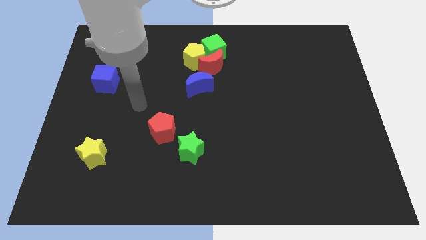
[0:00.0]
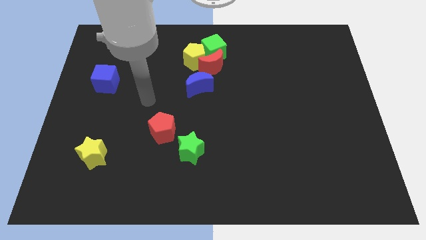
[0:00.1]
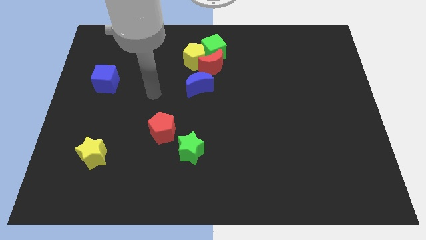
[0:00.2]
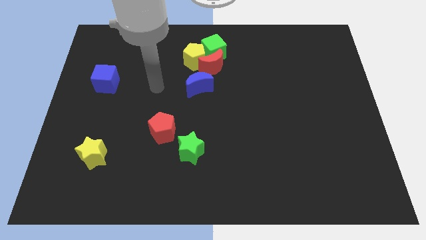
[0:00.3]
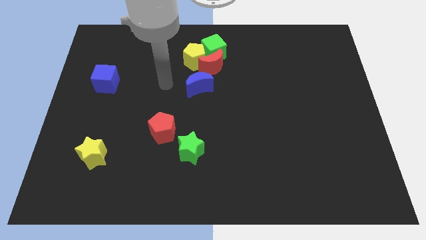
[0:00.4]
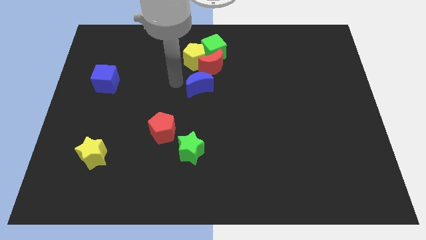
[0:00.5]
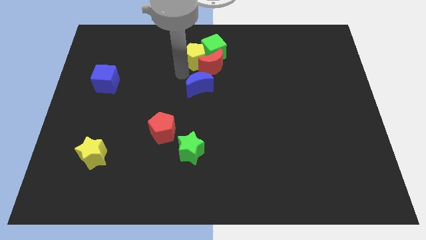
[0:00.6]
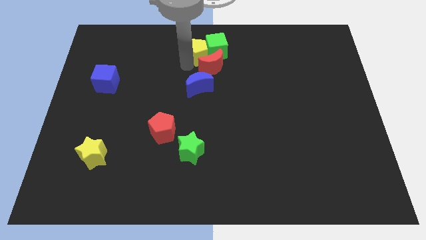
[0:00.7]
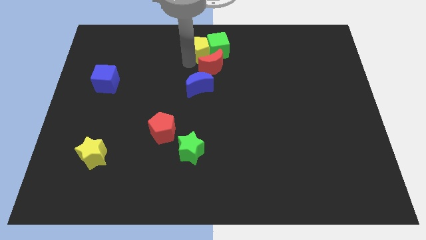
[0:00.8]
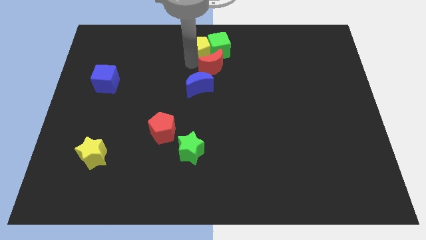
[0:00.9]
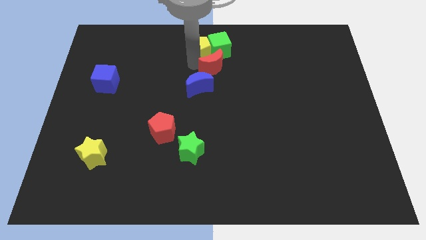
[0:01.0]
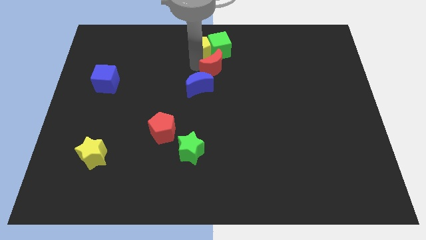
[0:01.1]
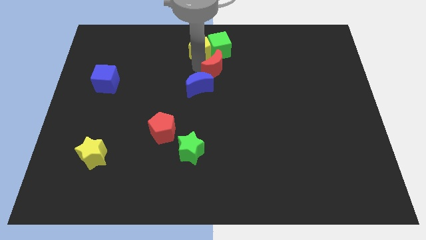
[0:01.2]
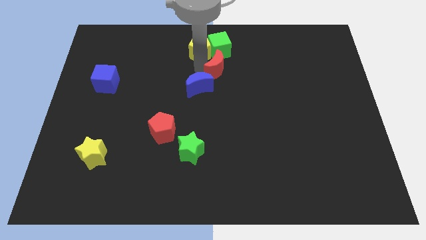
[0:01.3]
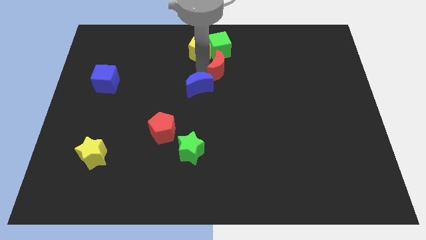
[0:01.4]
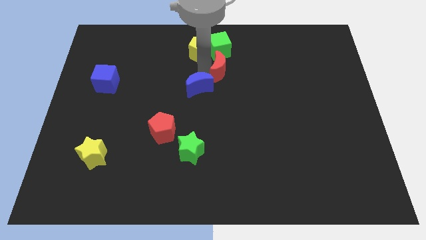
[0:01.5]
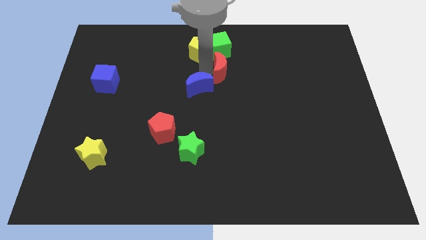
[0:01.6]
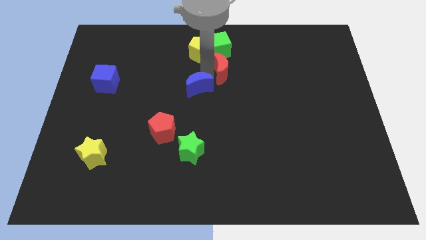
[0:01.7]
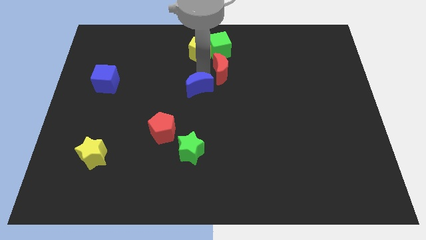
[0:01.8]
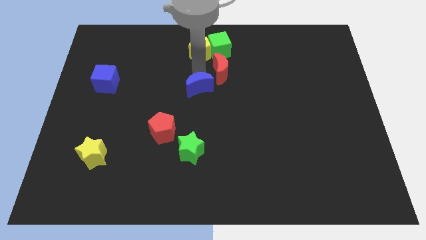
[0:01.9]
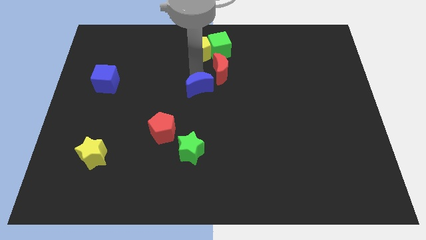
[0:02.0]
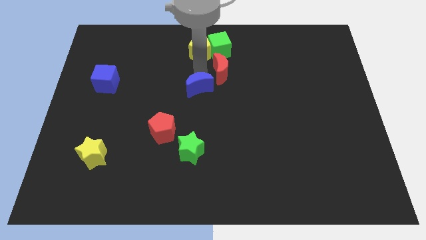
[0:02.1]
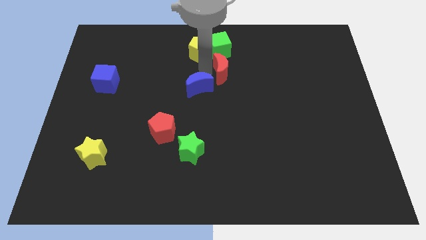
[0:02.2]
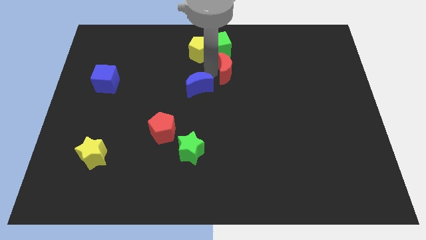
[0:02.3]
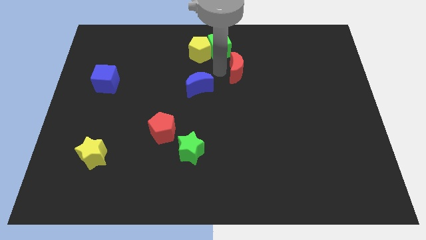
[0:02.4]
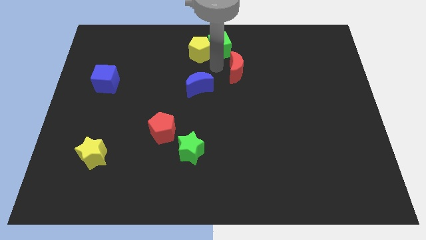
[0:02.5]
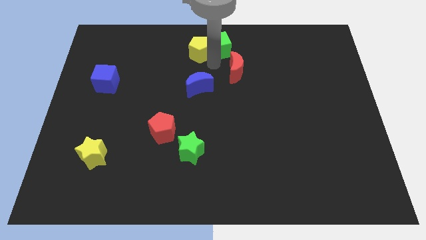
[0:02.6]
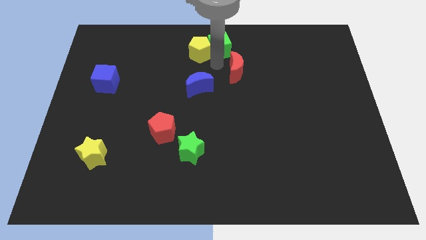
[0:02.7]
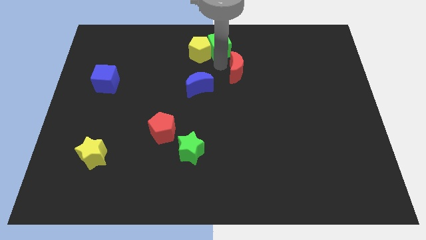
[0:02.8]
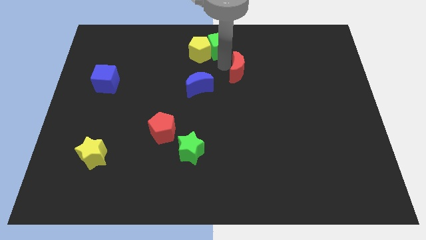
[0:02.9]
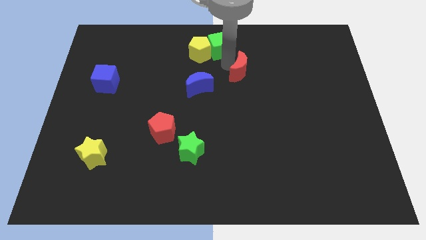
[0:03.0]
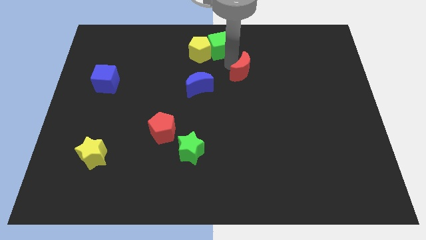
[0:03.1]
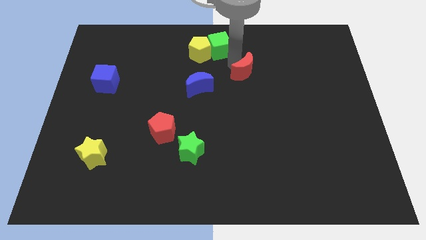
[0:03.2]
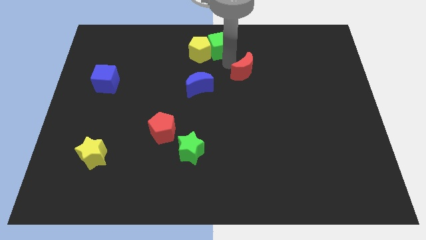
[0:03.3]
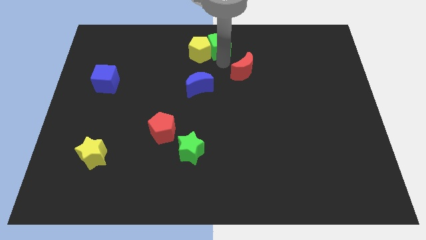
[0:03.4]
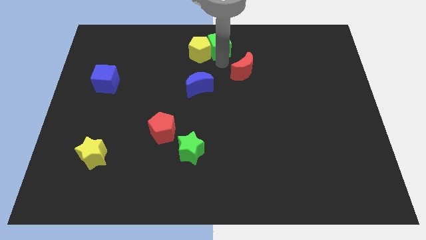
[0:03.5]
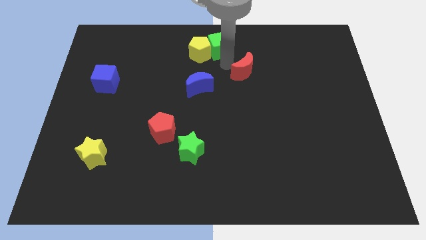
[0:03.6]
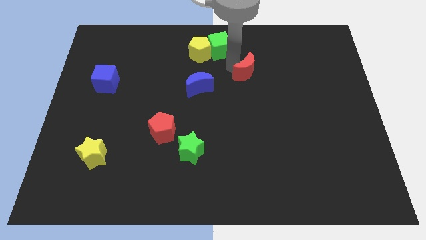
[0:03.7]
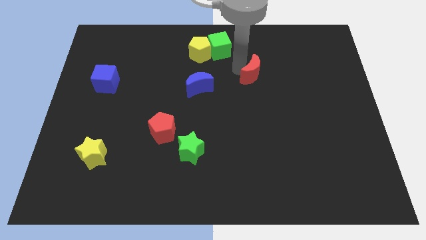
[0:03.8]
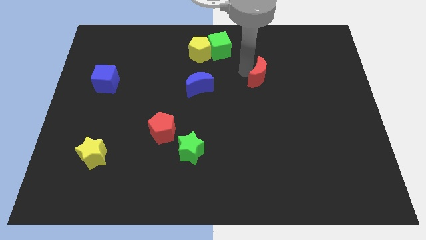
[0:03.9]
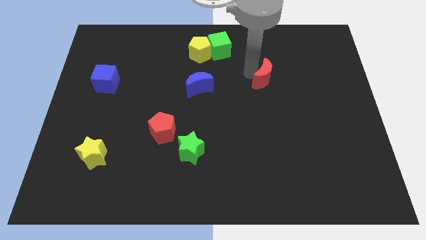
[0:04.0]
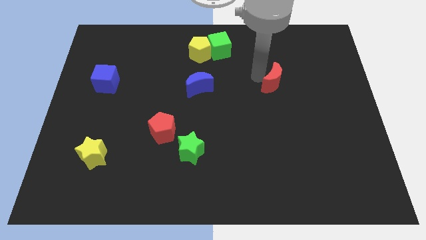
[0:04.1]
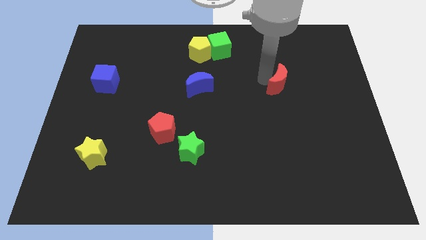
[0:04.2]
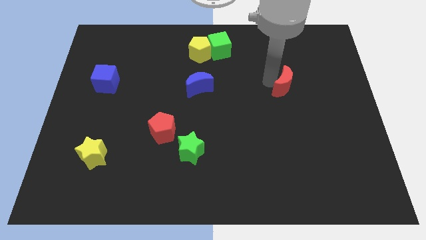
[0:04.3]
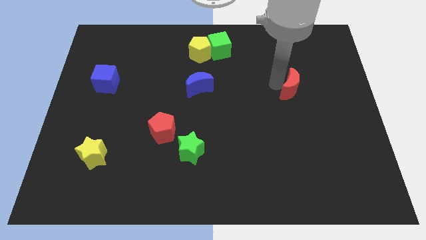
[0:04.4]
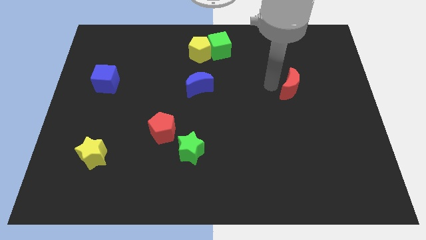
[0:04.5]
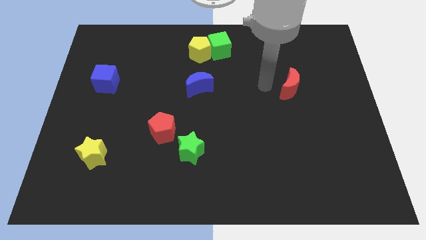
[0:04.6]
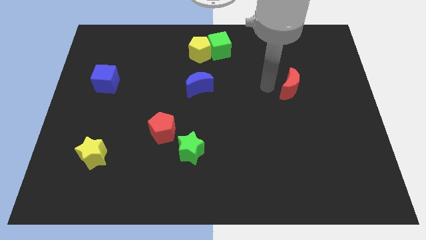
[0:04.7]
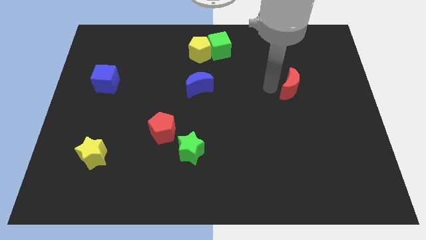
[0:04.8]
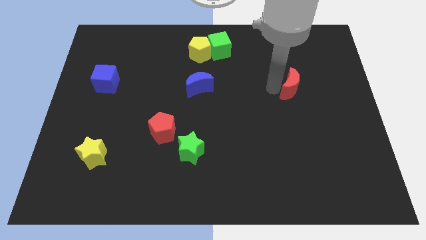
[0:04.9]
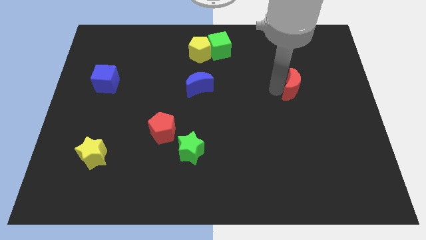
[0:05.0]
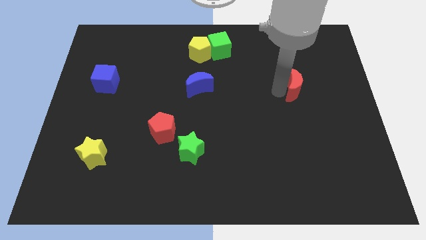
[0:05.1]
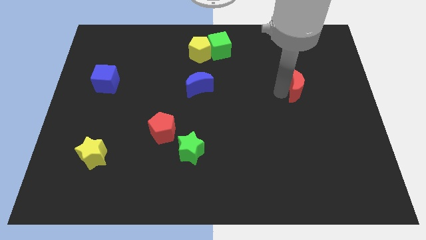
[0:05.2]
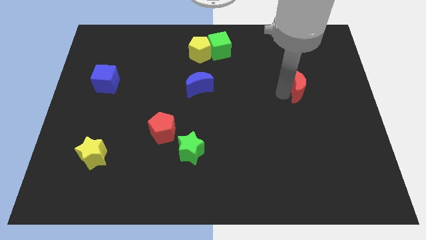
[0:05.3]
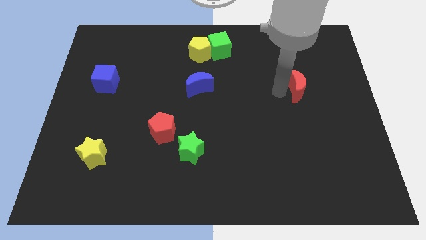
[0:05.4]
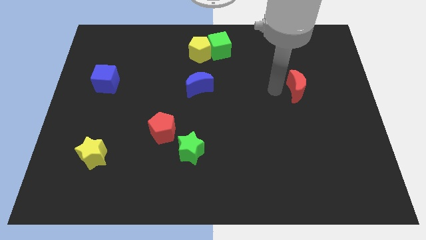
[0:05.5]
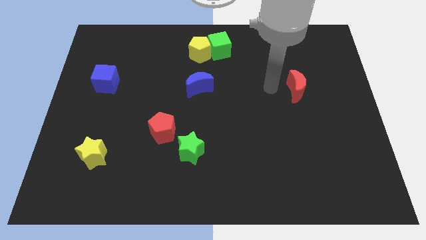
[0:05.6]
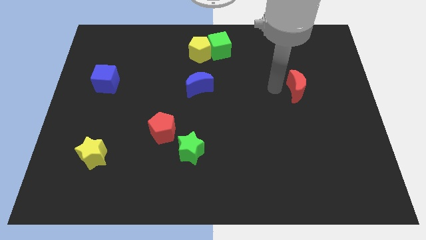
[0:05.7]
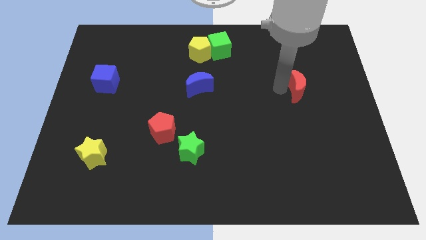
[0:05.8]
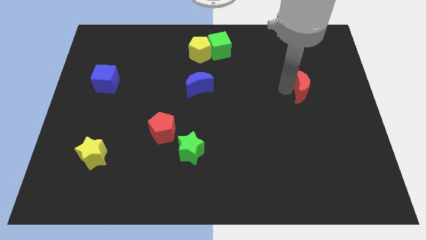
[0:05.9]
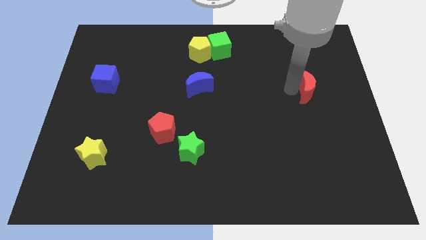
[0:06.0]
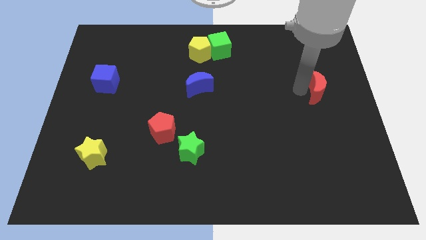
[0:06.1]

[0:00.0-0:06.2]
put the red moon to the center right

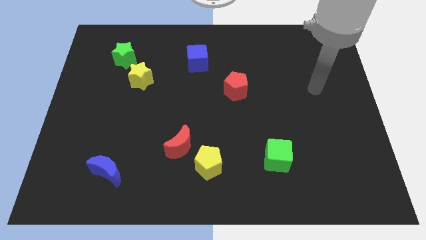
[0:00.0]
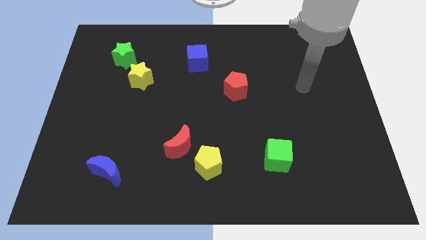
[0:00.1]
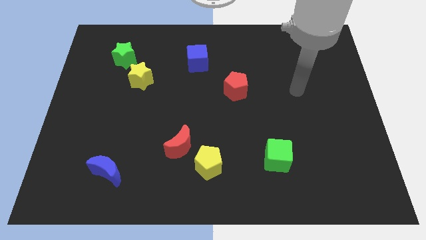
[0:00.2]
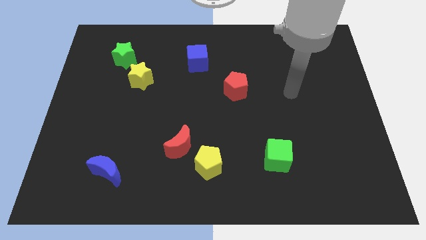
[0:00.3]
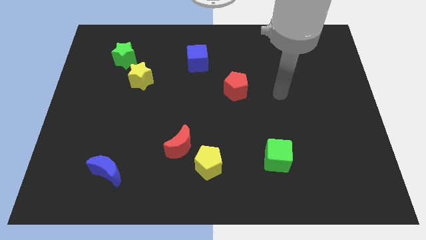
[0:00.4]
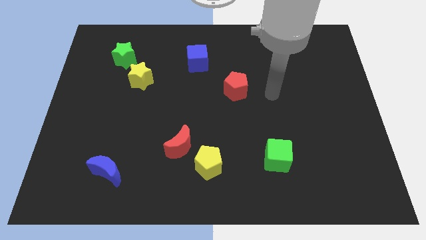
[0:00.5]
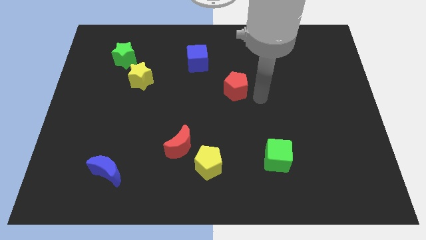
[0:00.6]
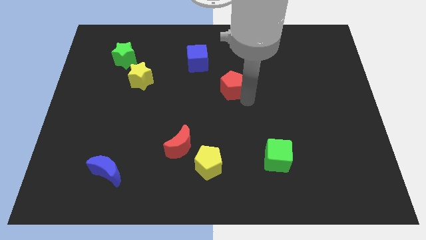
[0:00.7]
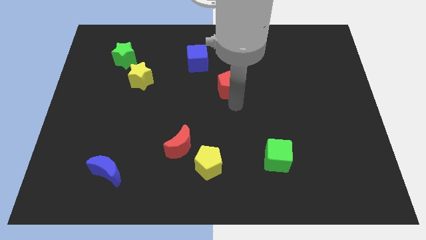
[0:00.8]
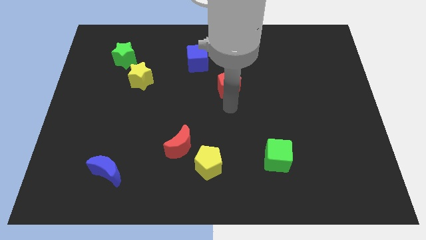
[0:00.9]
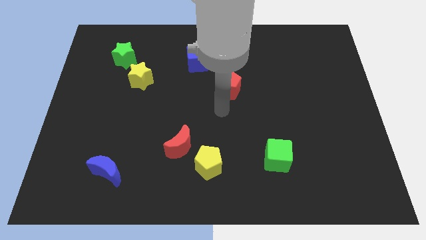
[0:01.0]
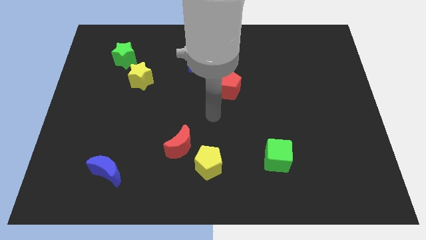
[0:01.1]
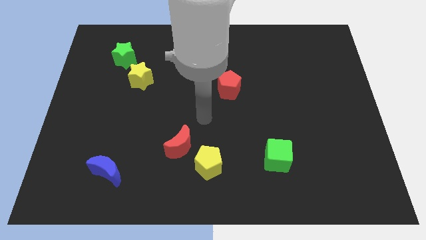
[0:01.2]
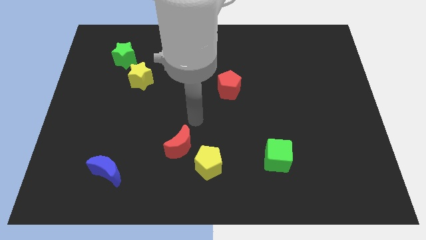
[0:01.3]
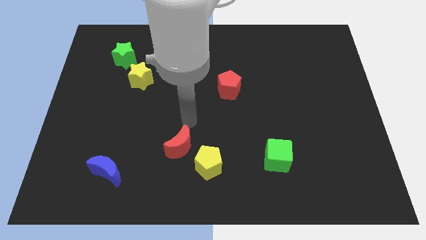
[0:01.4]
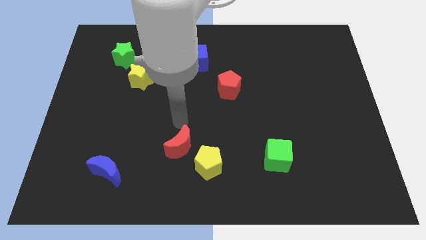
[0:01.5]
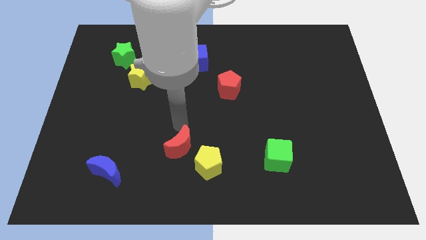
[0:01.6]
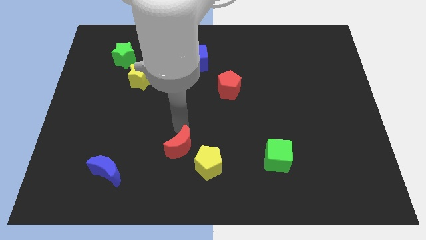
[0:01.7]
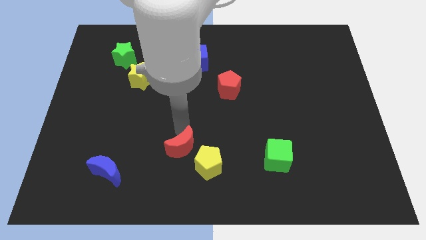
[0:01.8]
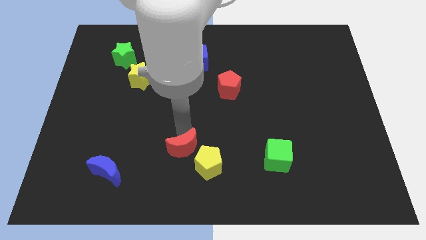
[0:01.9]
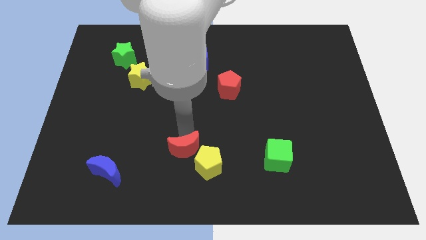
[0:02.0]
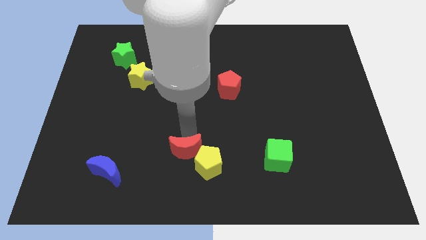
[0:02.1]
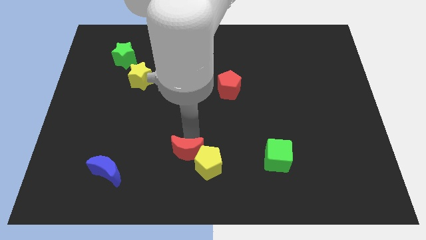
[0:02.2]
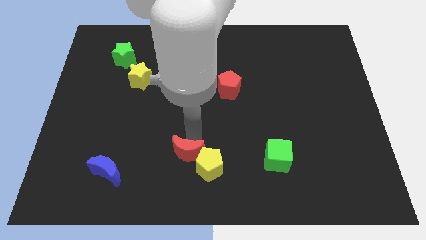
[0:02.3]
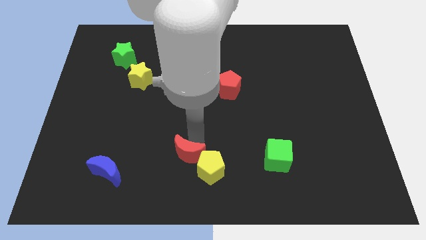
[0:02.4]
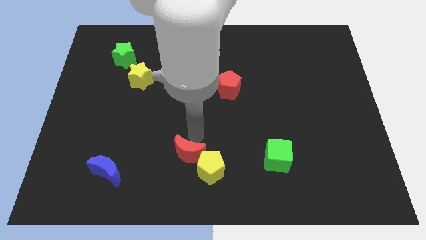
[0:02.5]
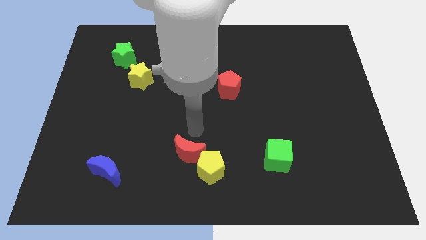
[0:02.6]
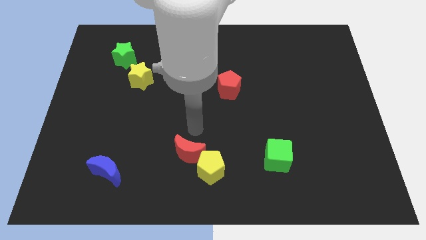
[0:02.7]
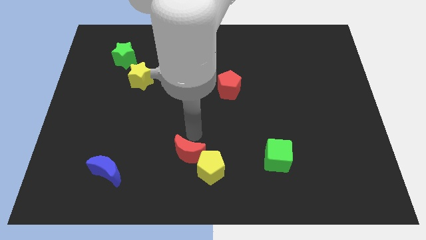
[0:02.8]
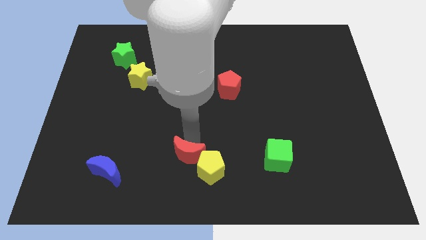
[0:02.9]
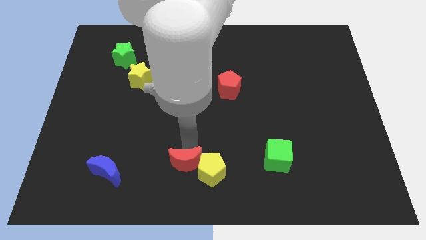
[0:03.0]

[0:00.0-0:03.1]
push the red moon to the bottom side
